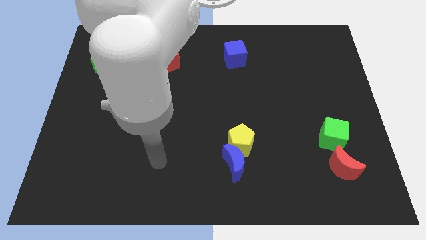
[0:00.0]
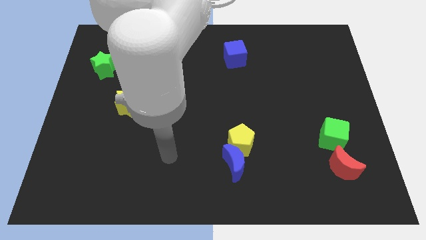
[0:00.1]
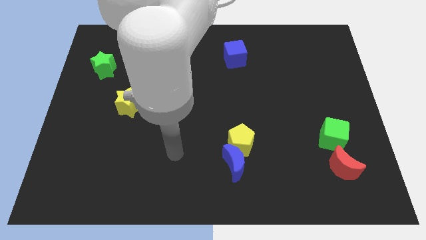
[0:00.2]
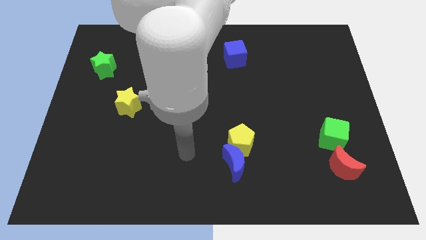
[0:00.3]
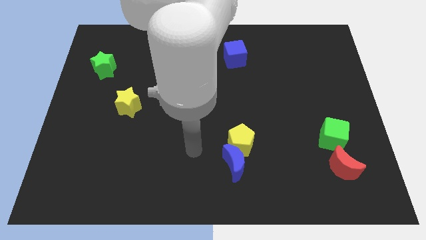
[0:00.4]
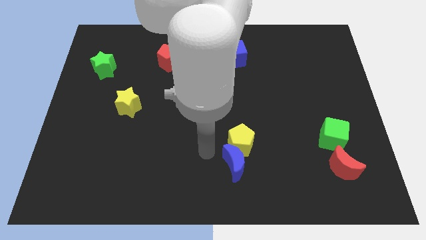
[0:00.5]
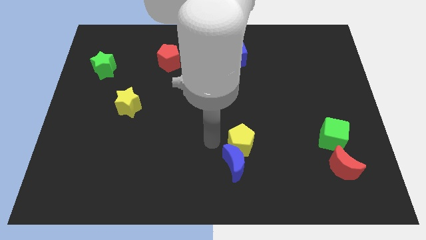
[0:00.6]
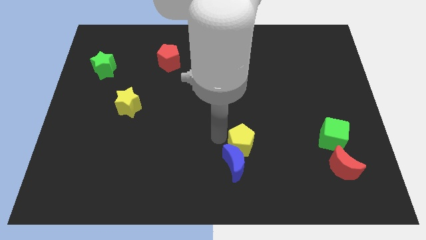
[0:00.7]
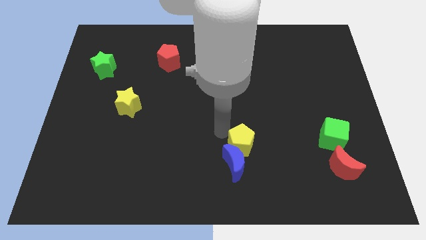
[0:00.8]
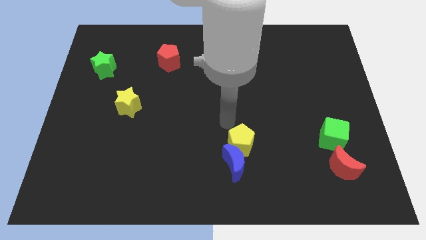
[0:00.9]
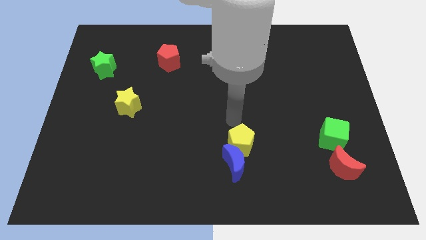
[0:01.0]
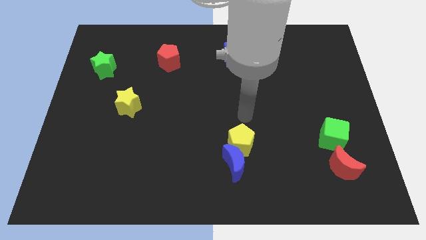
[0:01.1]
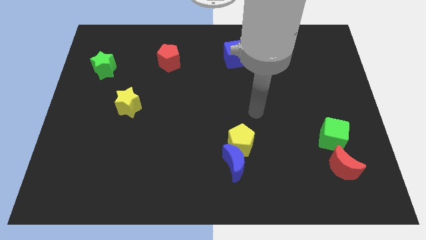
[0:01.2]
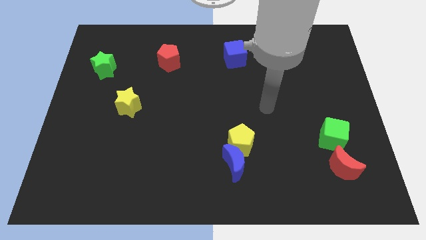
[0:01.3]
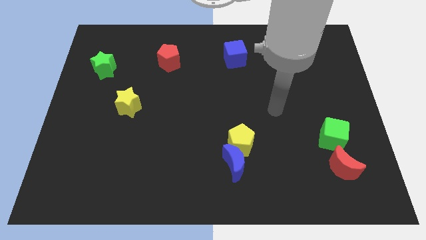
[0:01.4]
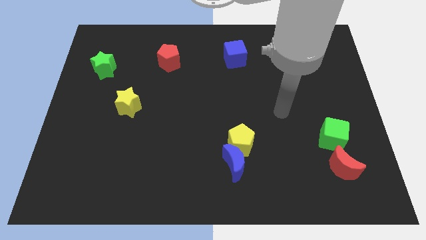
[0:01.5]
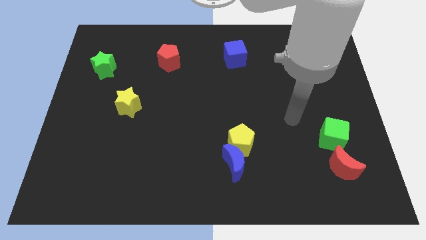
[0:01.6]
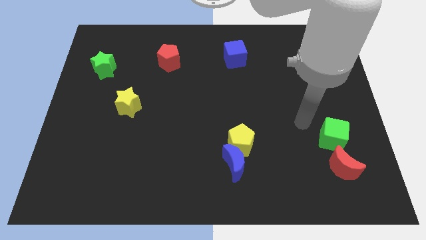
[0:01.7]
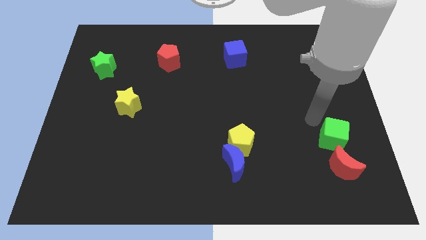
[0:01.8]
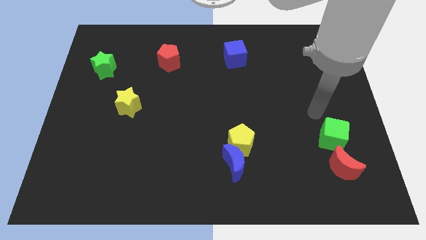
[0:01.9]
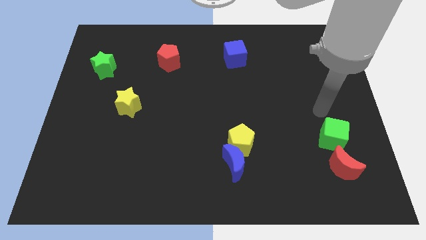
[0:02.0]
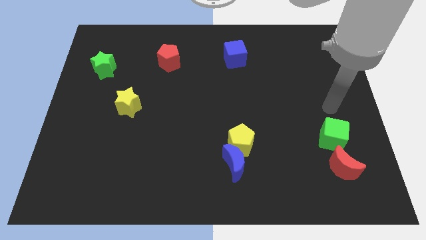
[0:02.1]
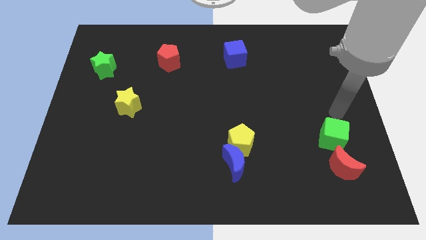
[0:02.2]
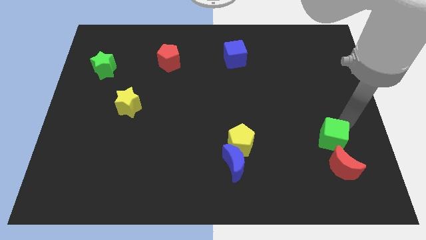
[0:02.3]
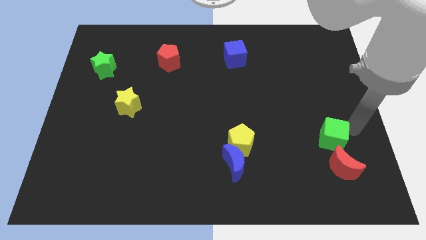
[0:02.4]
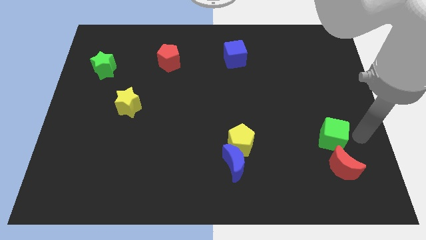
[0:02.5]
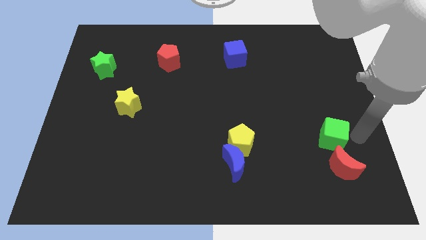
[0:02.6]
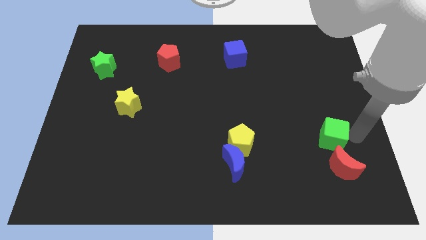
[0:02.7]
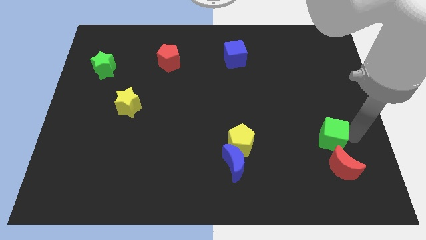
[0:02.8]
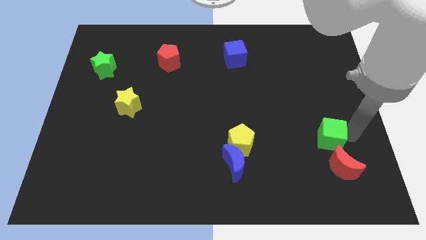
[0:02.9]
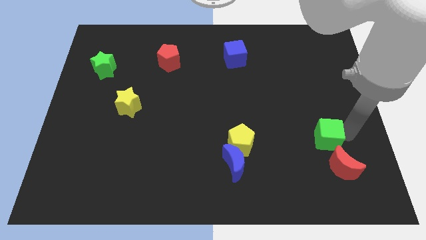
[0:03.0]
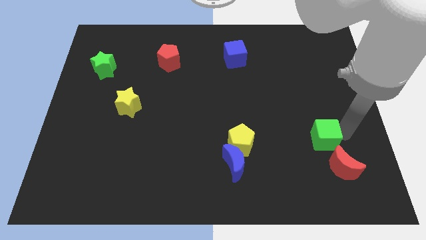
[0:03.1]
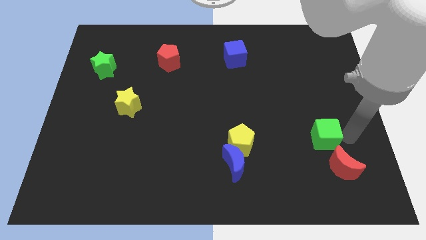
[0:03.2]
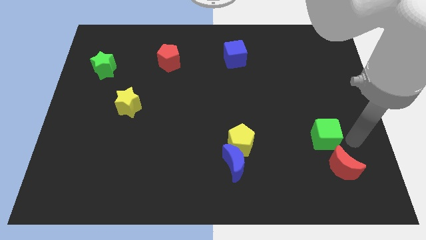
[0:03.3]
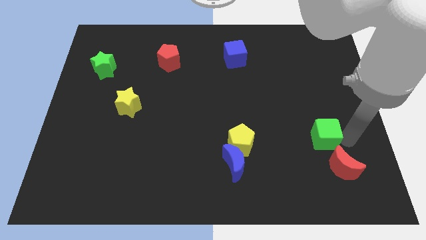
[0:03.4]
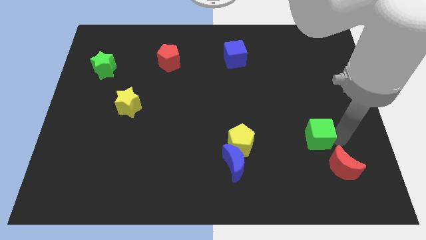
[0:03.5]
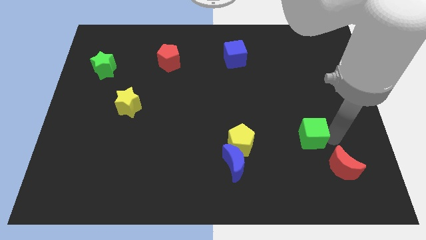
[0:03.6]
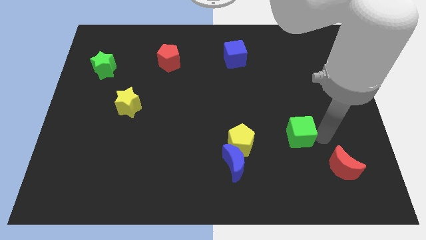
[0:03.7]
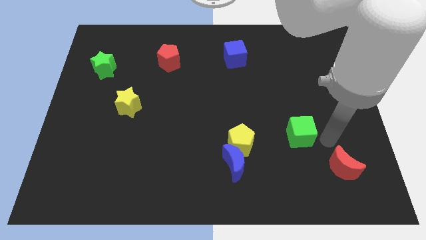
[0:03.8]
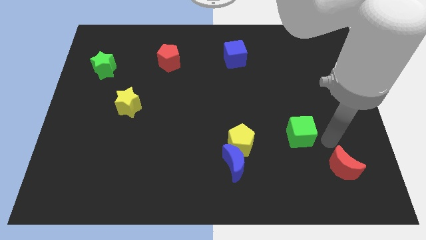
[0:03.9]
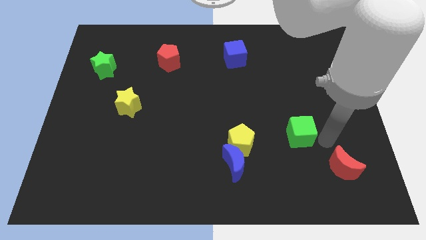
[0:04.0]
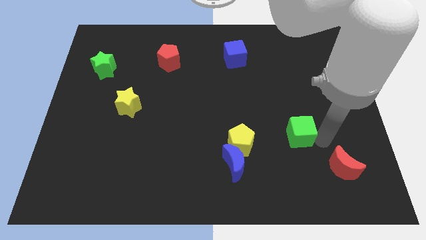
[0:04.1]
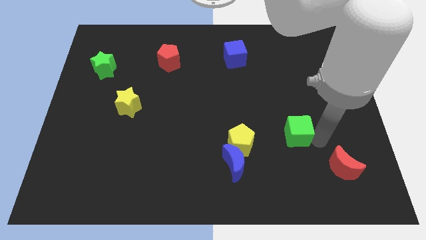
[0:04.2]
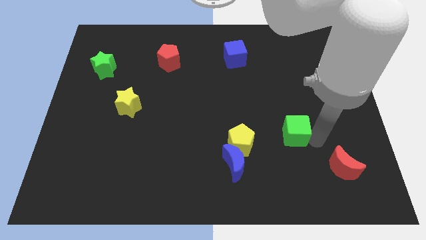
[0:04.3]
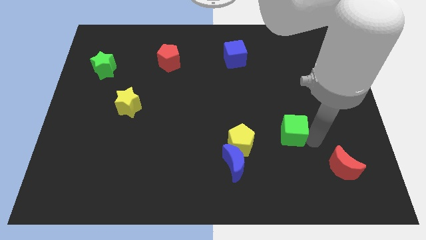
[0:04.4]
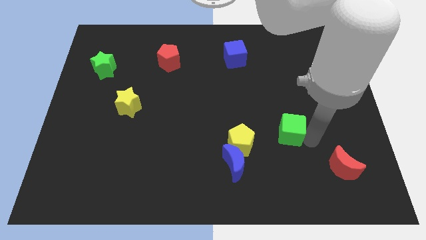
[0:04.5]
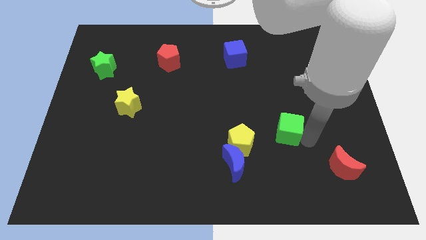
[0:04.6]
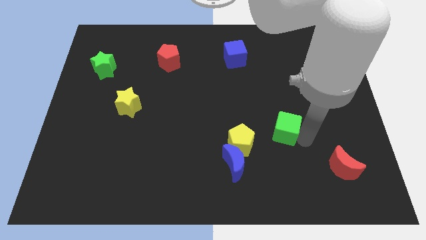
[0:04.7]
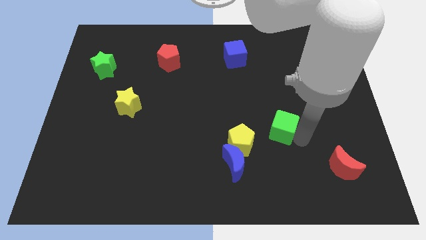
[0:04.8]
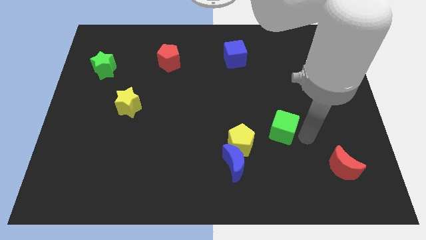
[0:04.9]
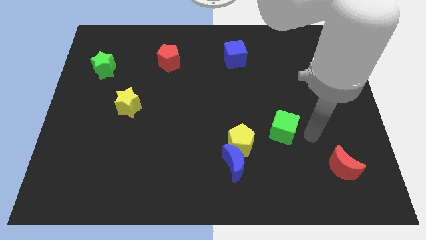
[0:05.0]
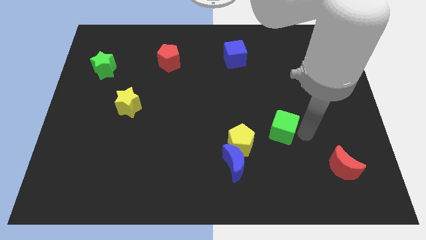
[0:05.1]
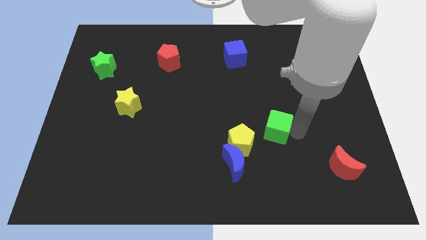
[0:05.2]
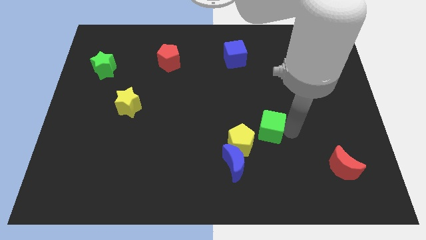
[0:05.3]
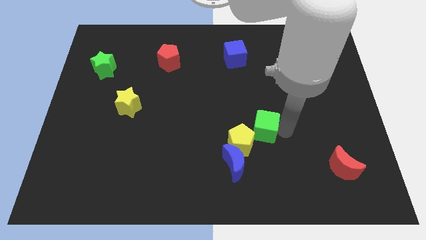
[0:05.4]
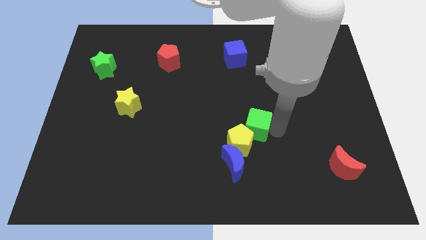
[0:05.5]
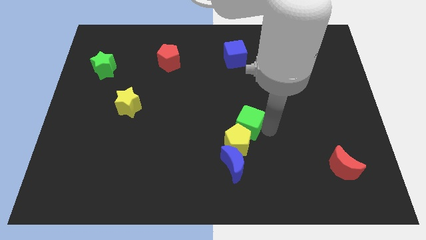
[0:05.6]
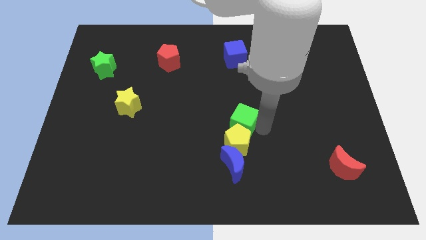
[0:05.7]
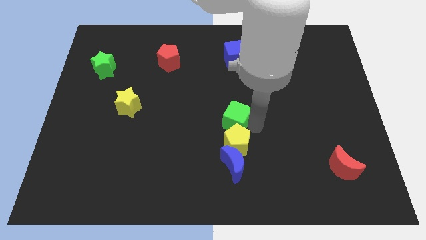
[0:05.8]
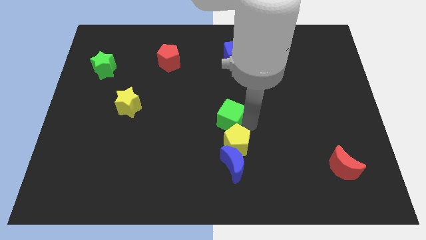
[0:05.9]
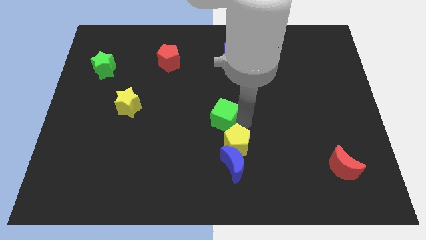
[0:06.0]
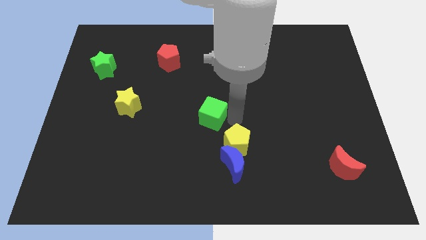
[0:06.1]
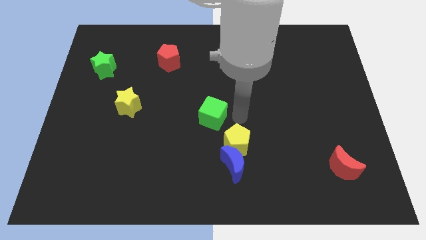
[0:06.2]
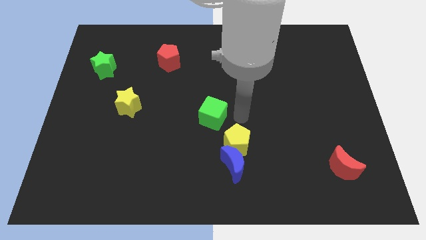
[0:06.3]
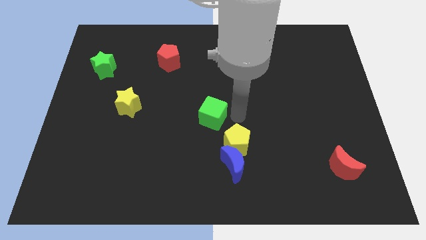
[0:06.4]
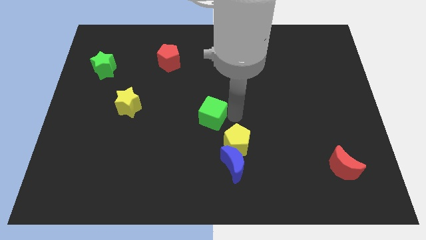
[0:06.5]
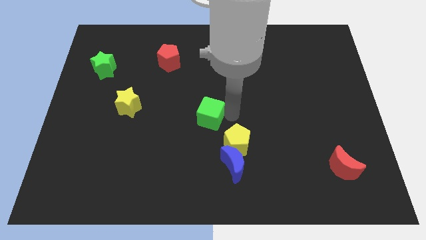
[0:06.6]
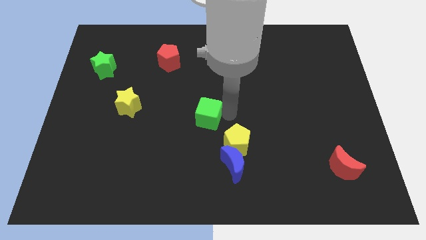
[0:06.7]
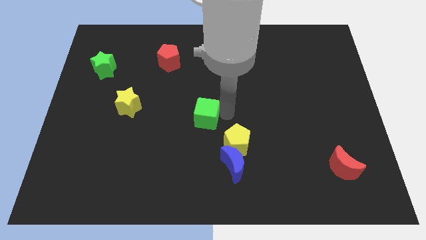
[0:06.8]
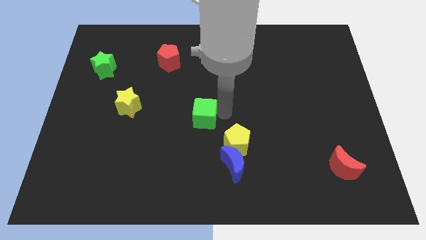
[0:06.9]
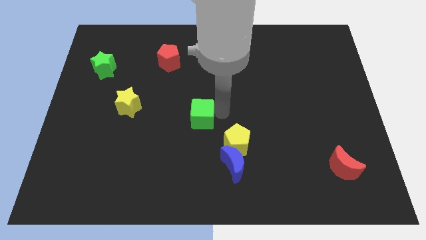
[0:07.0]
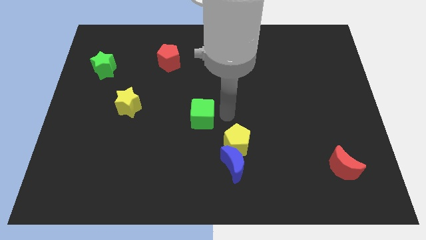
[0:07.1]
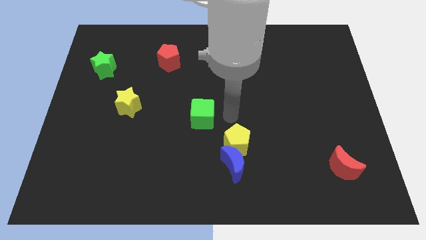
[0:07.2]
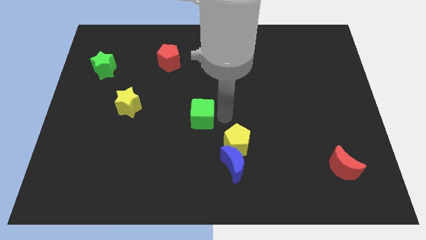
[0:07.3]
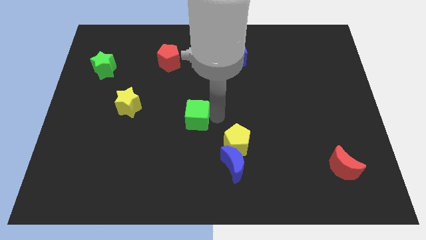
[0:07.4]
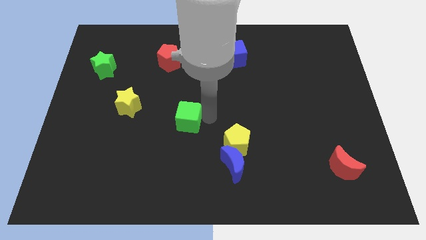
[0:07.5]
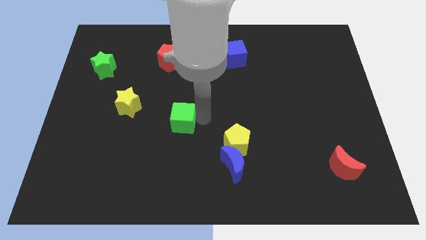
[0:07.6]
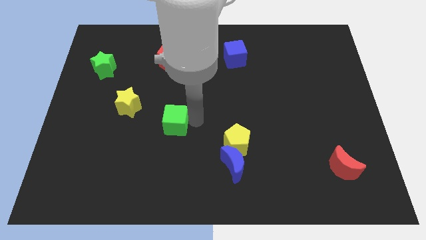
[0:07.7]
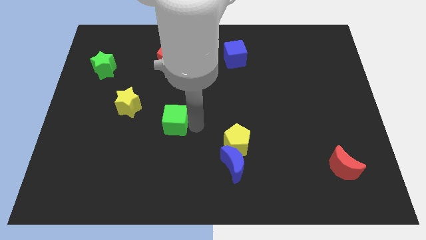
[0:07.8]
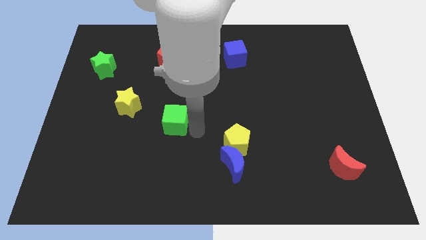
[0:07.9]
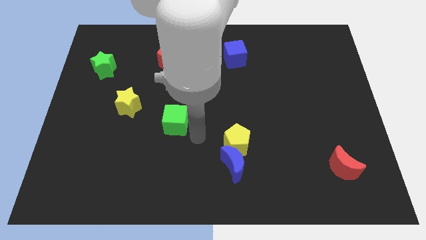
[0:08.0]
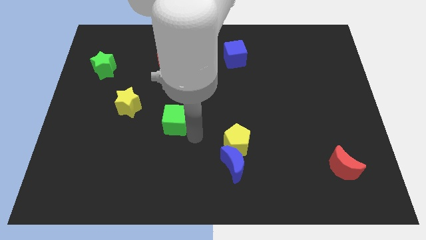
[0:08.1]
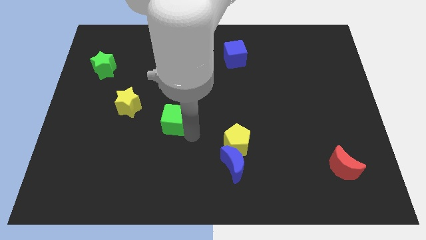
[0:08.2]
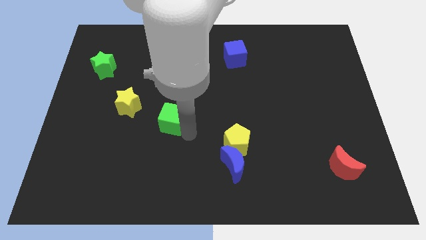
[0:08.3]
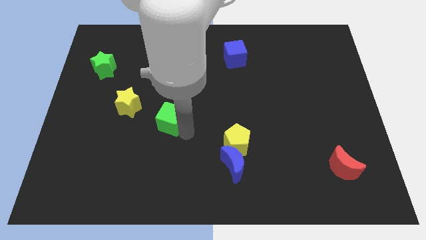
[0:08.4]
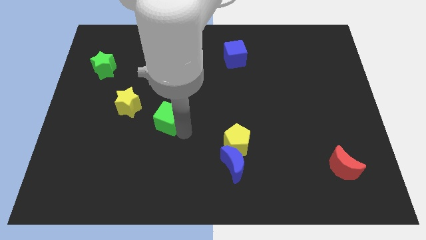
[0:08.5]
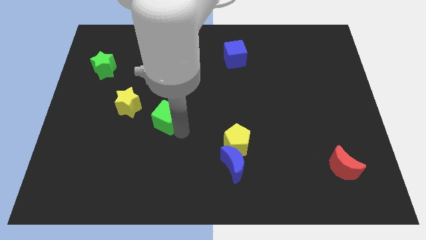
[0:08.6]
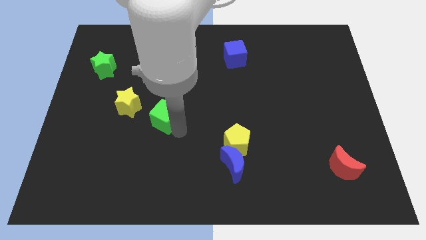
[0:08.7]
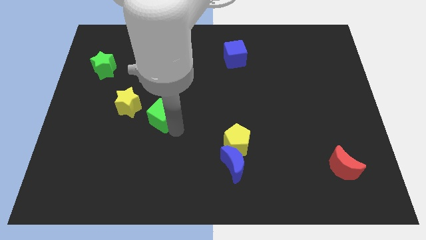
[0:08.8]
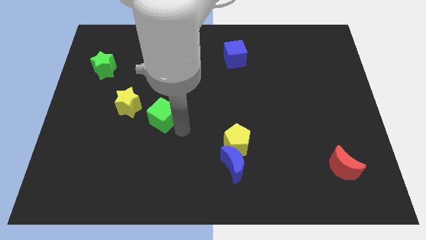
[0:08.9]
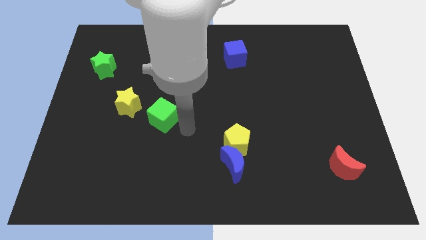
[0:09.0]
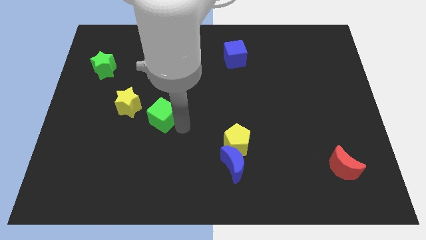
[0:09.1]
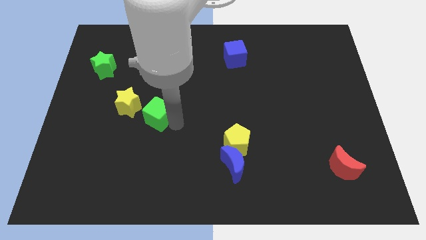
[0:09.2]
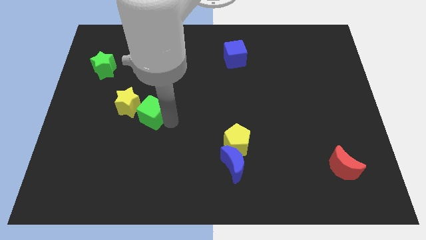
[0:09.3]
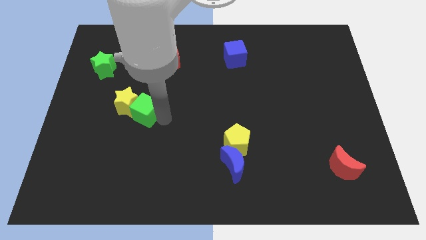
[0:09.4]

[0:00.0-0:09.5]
put the green cube towards the yellow star
